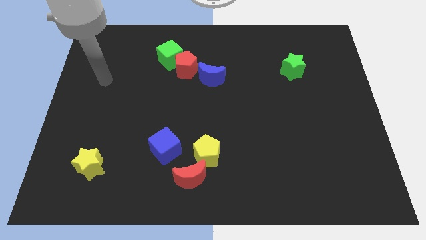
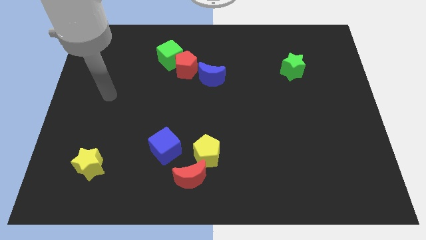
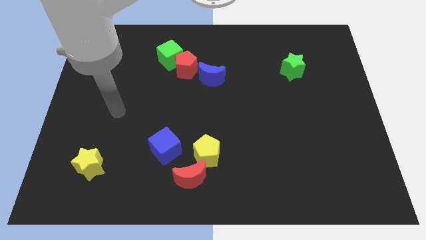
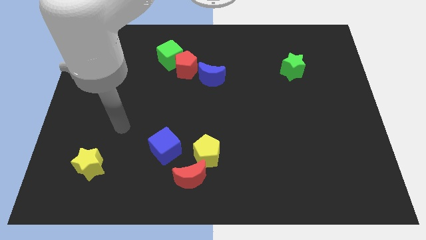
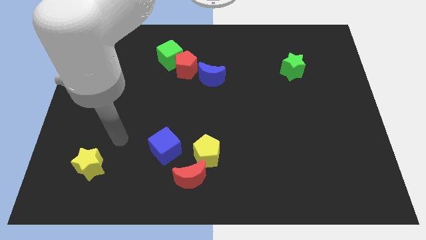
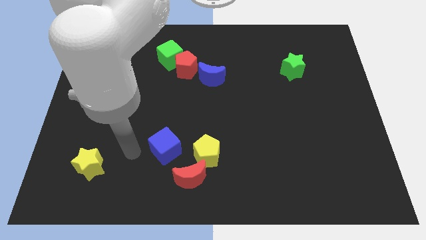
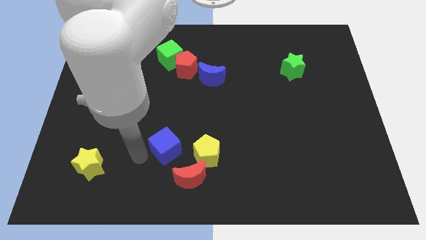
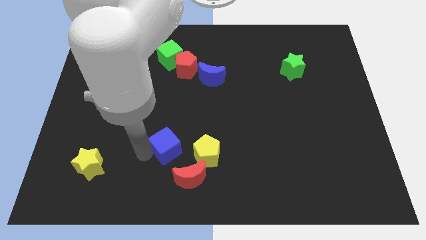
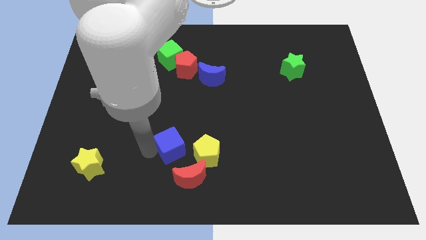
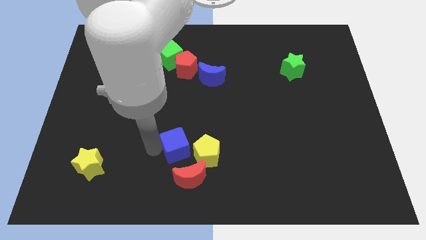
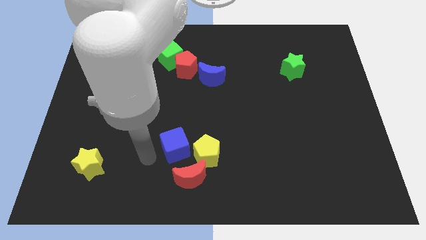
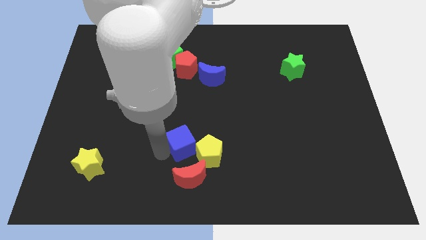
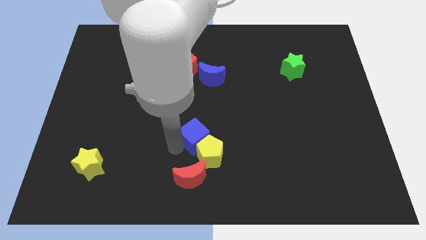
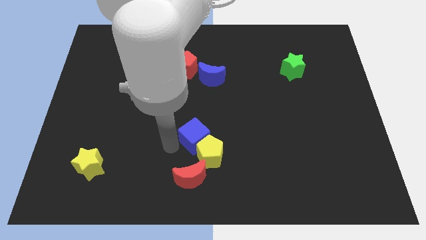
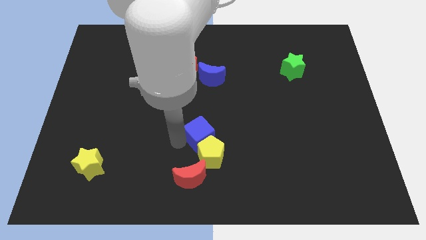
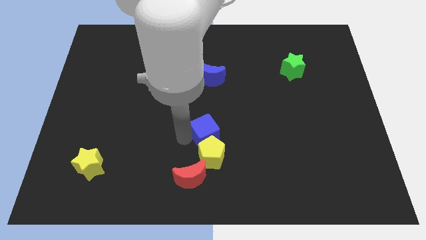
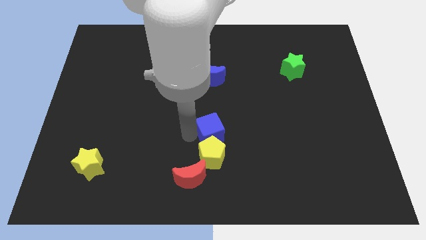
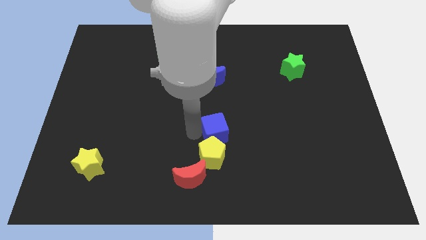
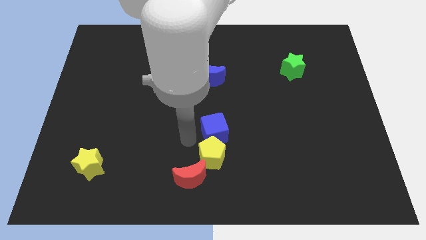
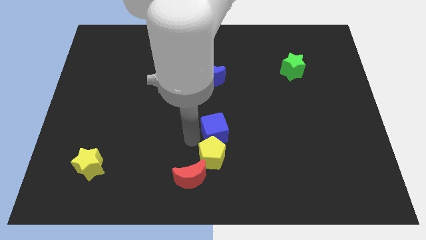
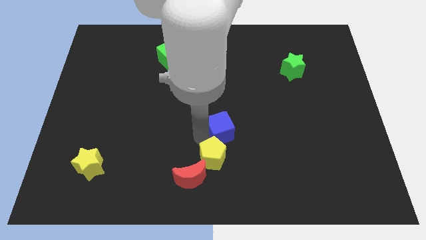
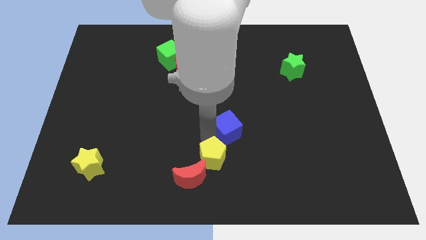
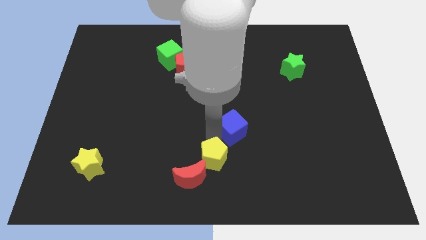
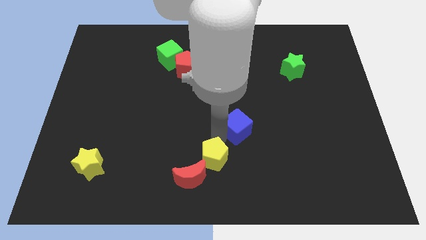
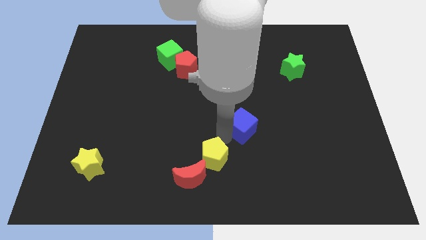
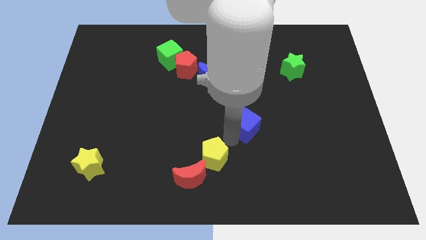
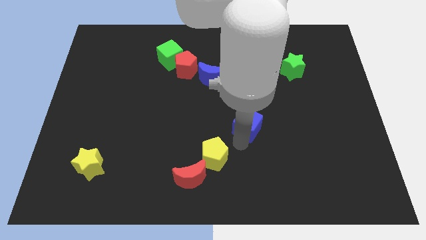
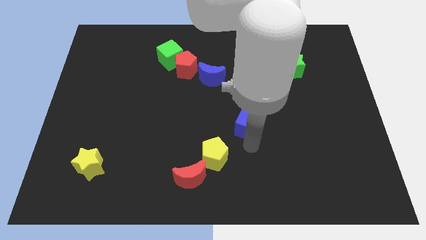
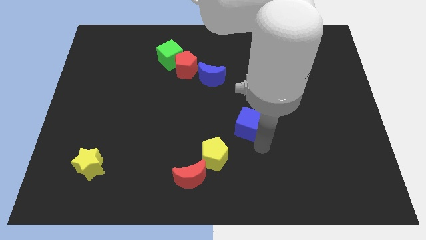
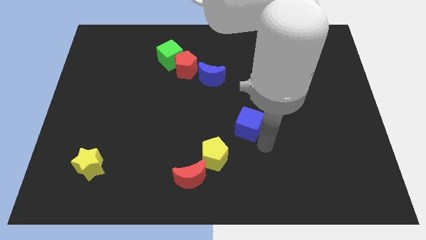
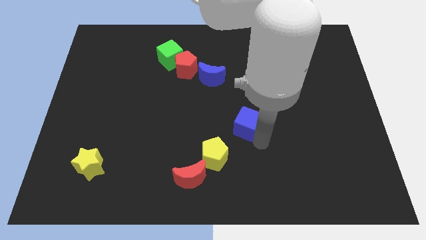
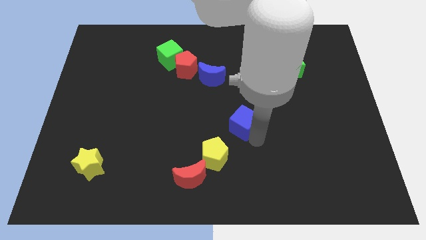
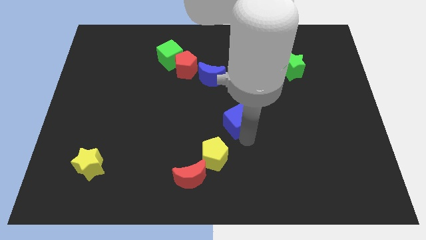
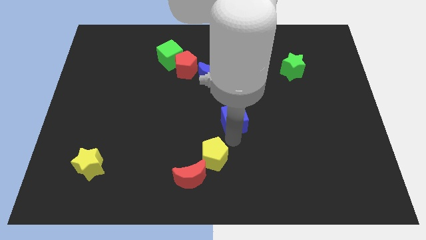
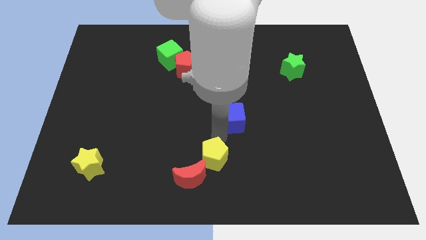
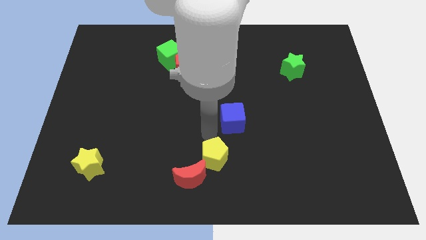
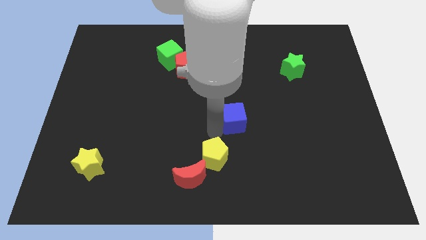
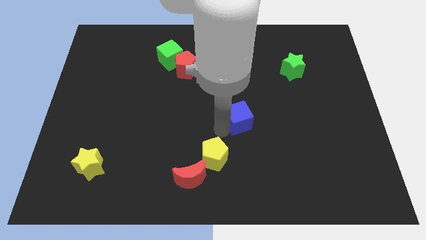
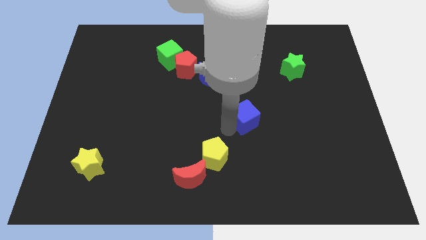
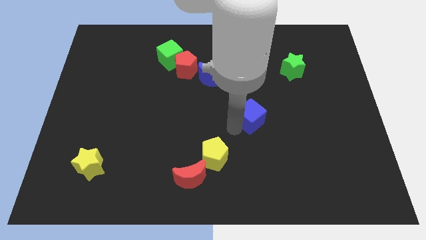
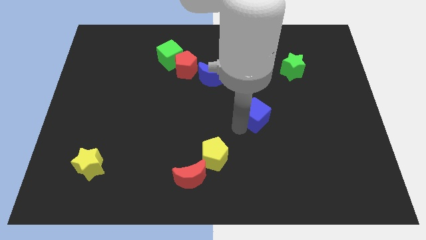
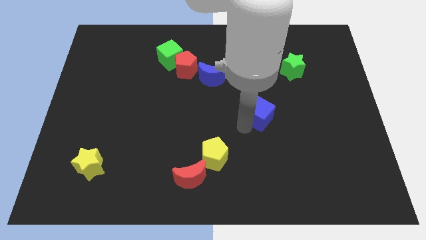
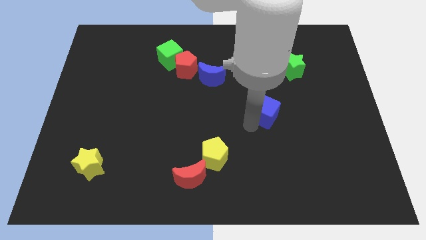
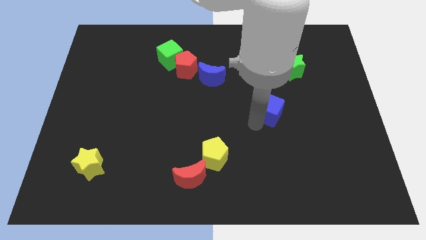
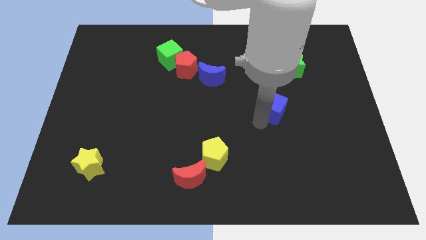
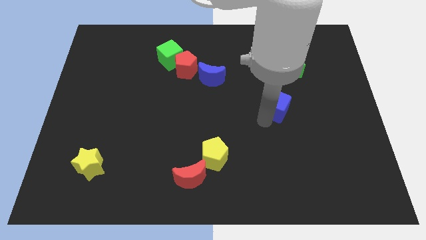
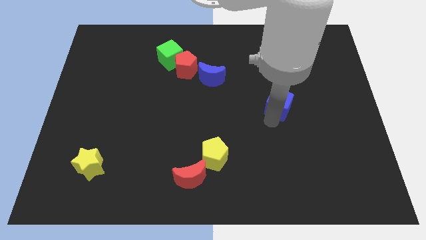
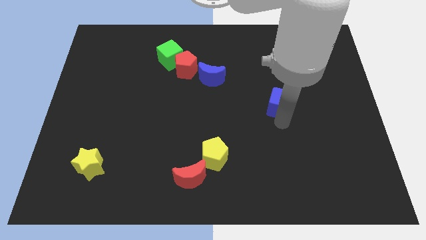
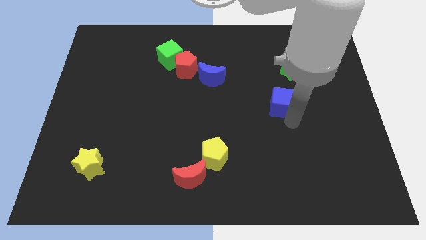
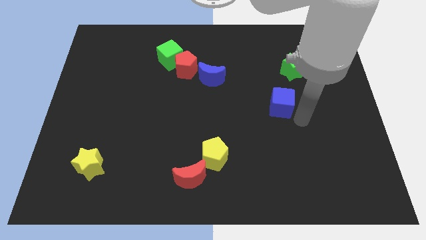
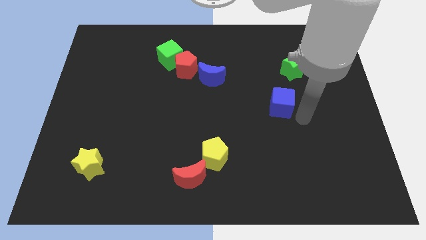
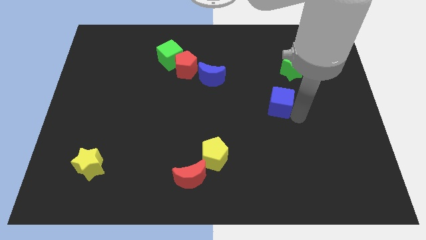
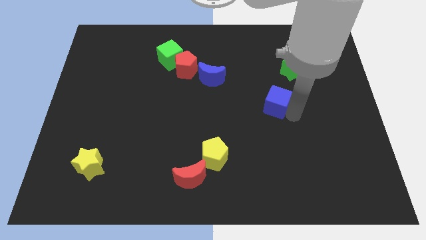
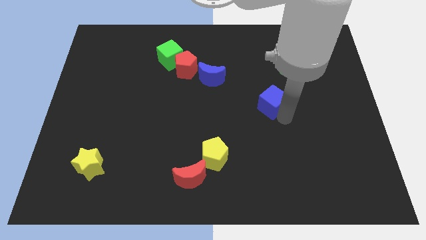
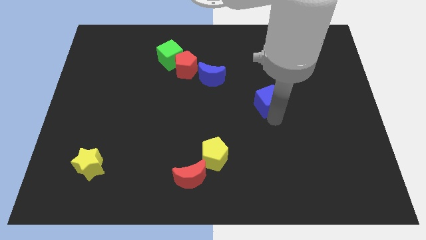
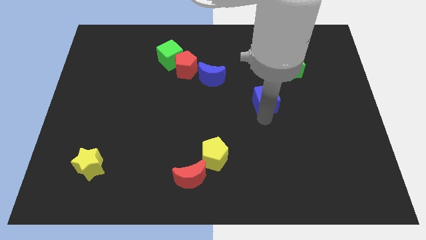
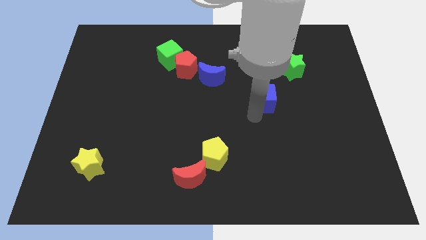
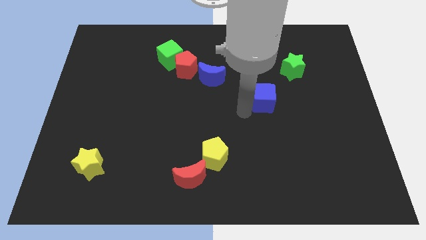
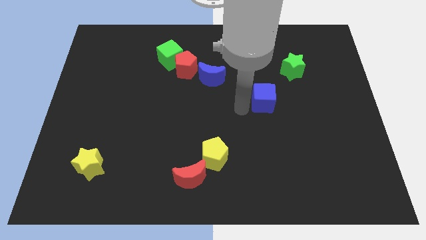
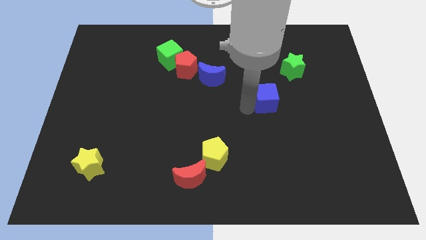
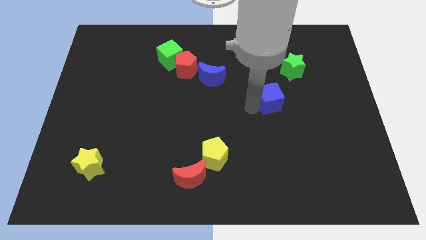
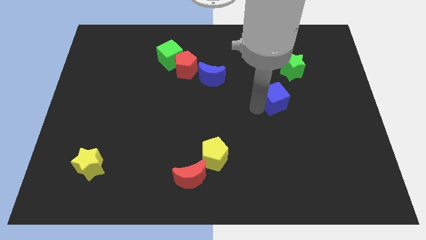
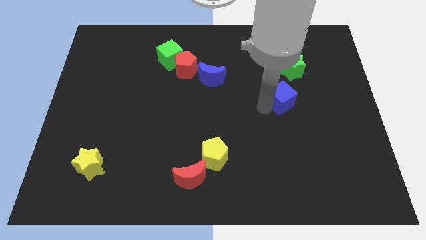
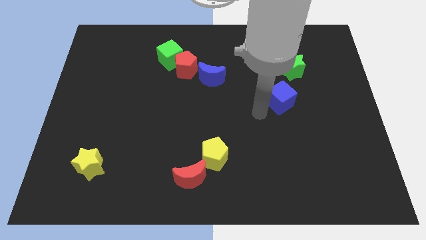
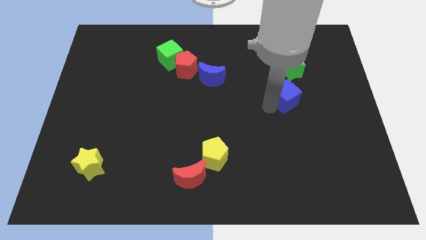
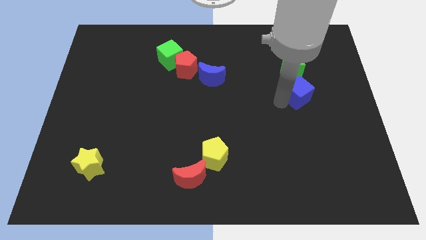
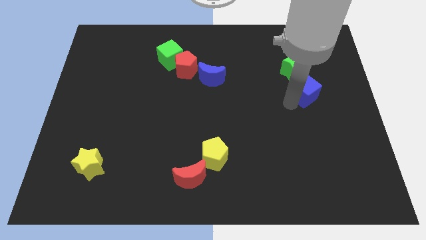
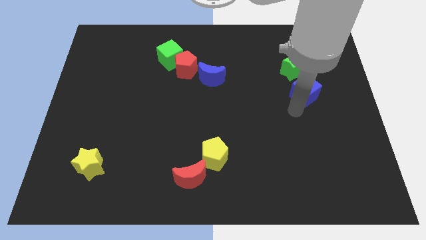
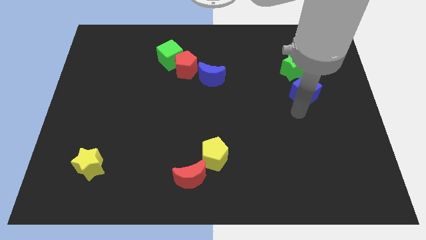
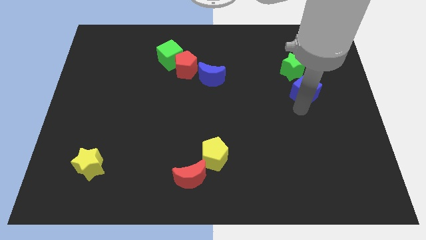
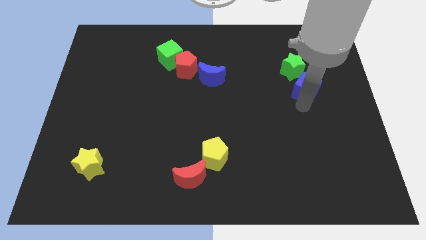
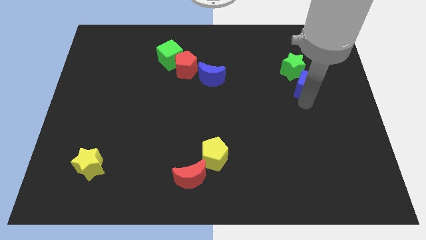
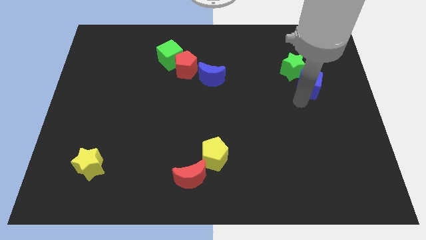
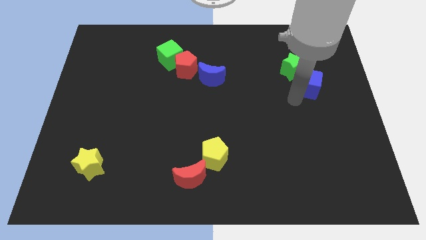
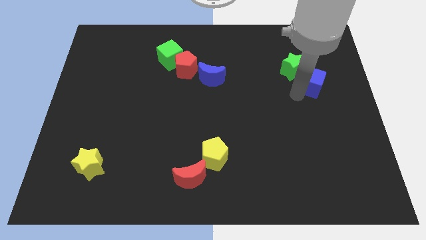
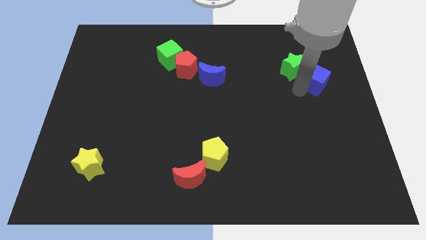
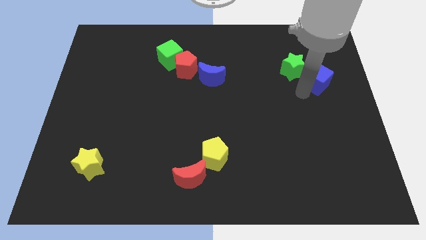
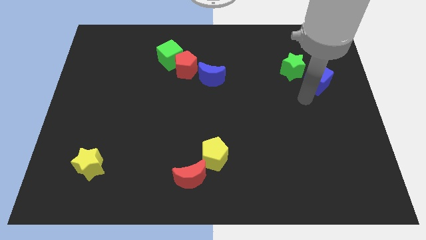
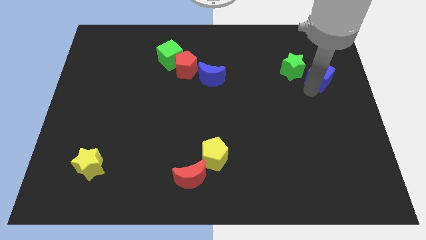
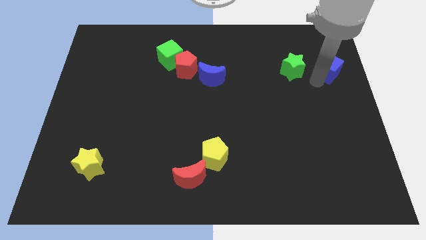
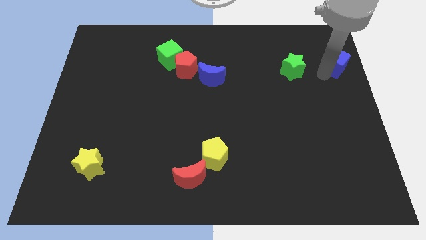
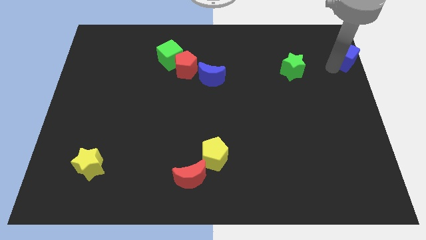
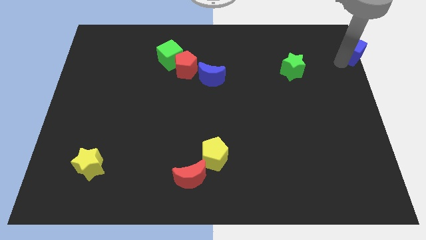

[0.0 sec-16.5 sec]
move the blue cube to the top right corner
